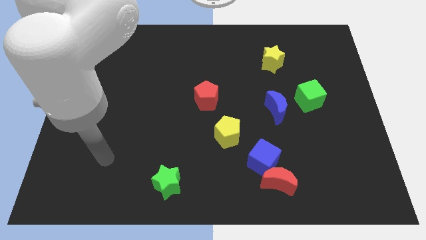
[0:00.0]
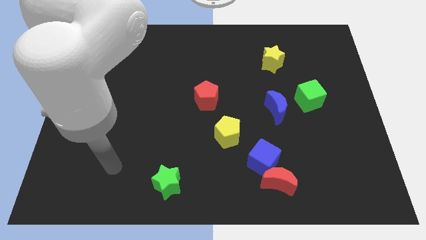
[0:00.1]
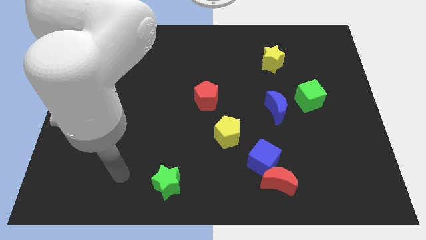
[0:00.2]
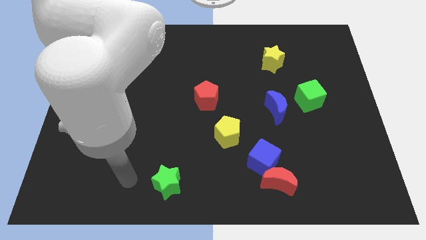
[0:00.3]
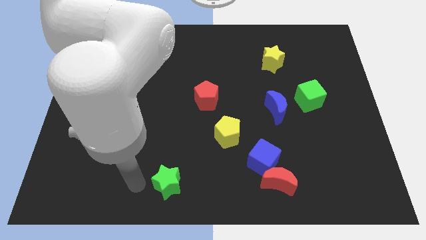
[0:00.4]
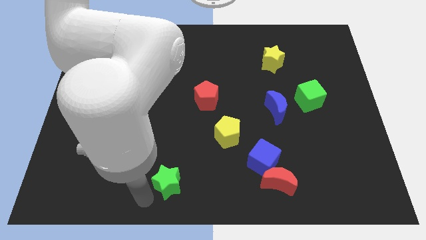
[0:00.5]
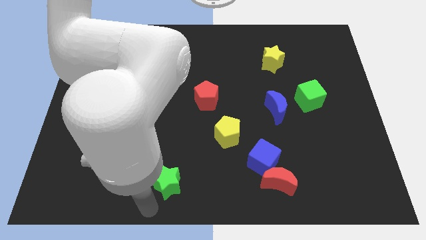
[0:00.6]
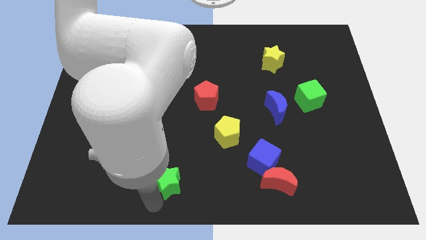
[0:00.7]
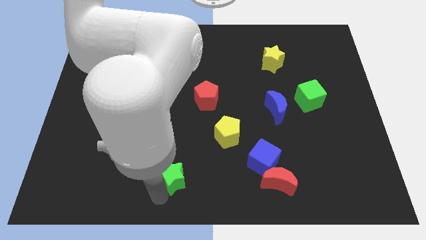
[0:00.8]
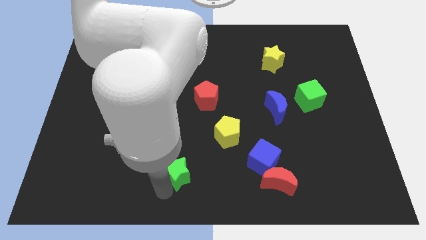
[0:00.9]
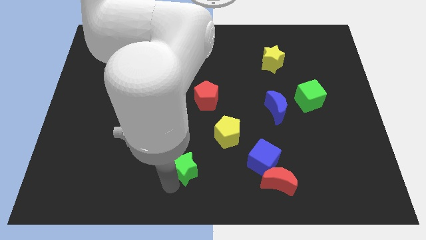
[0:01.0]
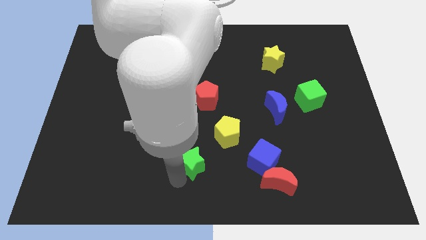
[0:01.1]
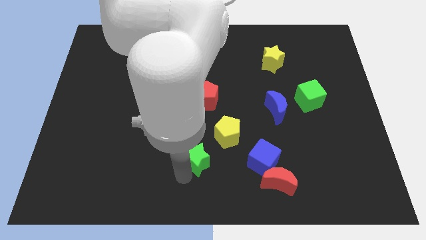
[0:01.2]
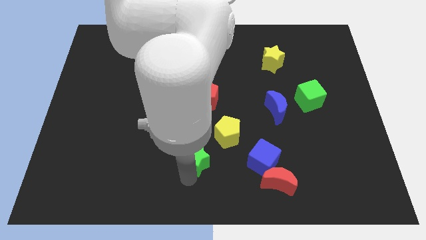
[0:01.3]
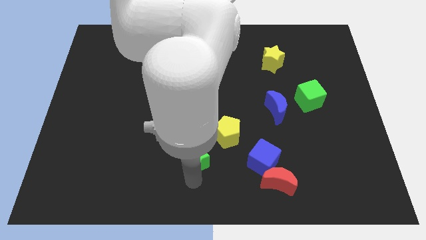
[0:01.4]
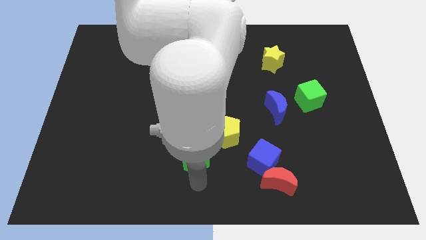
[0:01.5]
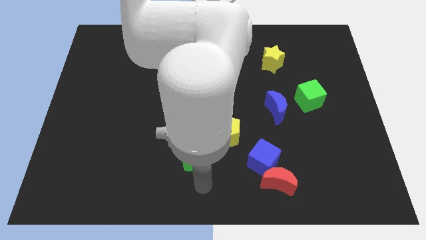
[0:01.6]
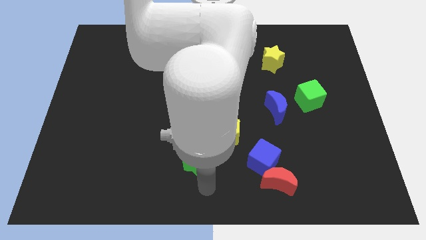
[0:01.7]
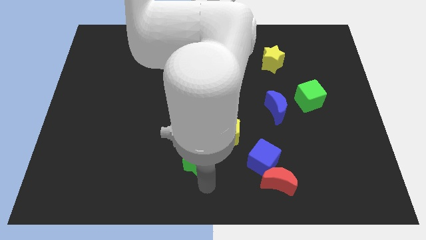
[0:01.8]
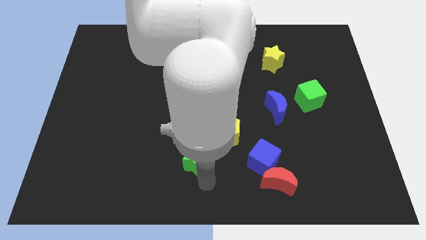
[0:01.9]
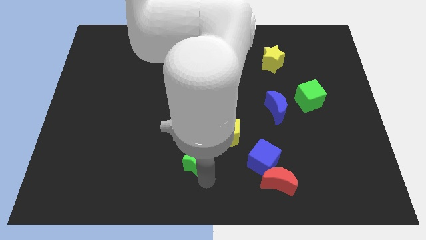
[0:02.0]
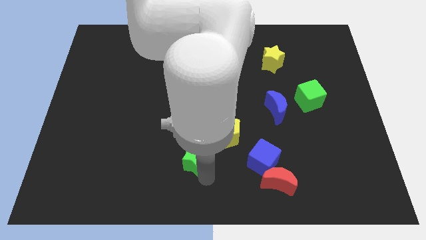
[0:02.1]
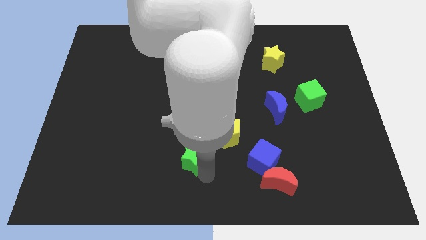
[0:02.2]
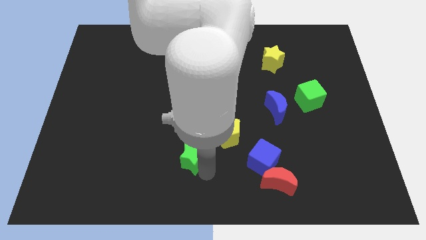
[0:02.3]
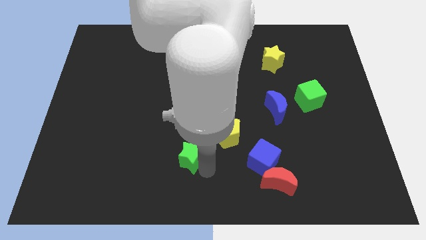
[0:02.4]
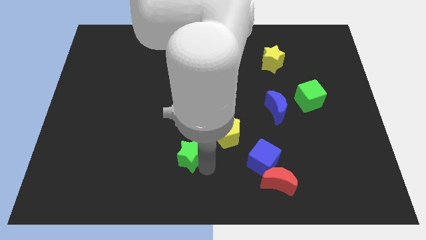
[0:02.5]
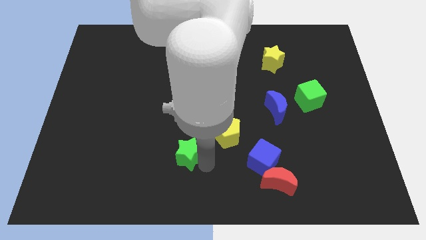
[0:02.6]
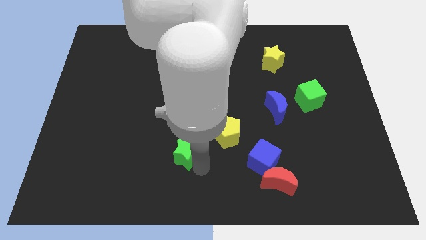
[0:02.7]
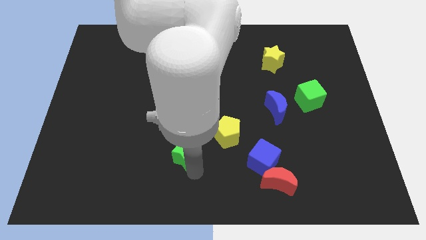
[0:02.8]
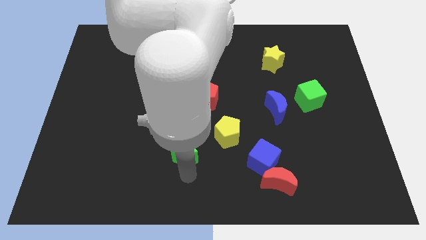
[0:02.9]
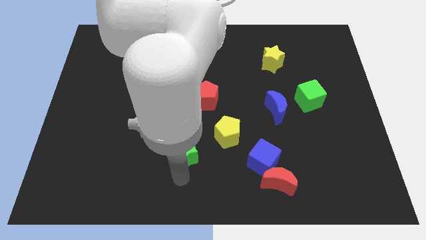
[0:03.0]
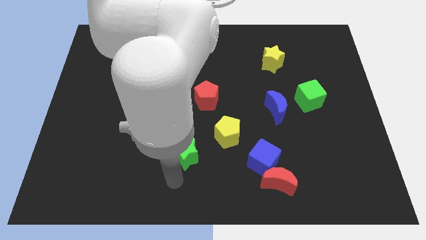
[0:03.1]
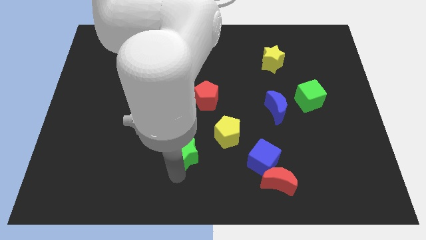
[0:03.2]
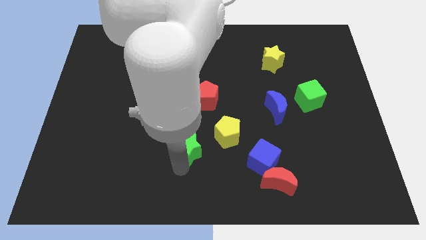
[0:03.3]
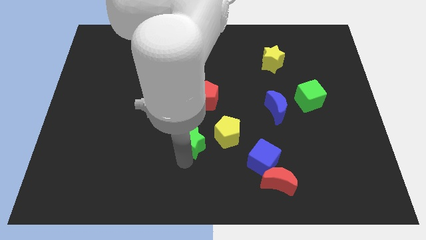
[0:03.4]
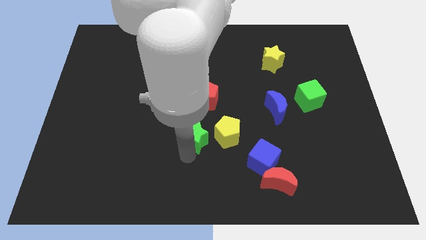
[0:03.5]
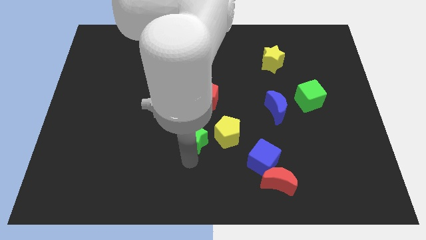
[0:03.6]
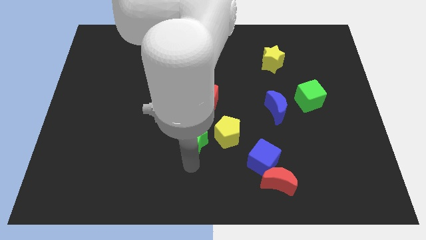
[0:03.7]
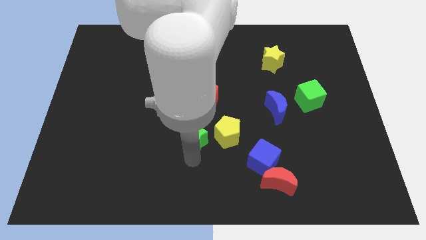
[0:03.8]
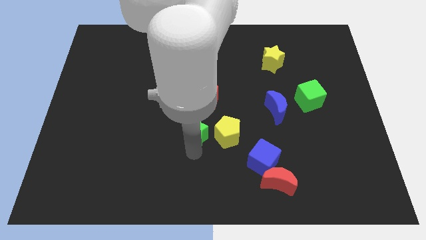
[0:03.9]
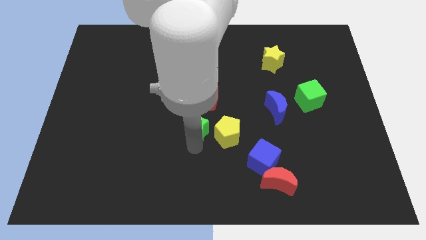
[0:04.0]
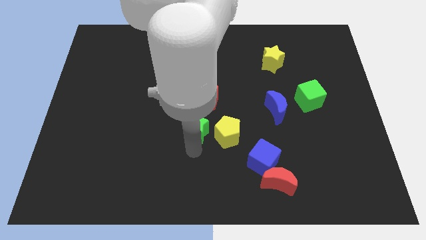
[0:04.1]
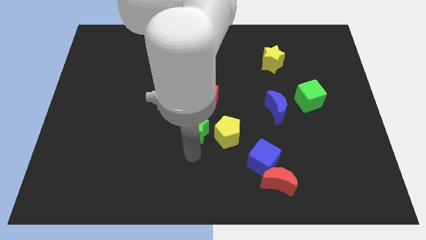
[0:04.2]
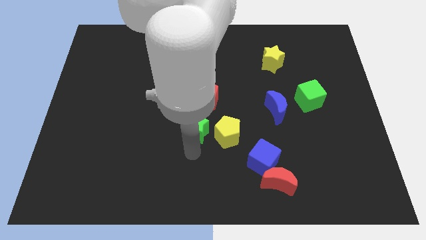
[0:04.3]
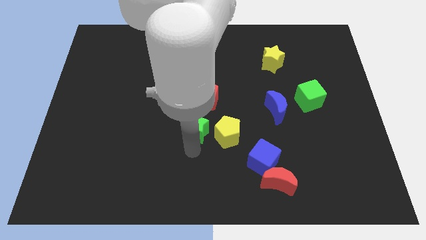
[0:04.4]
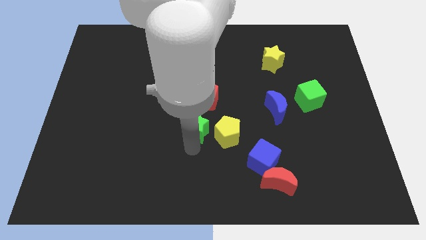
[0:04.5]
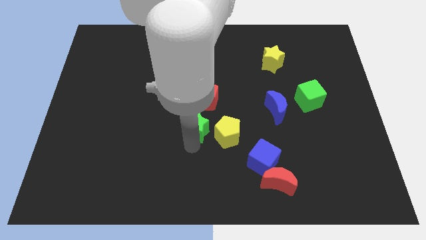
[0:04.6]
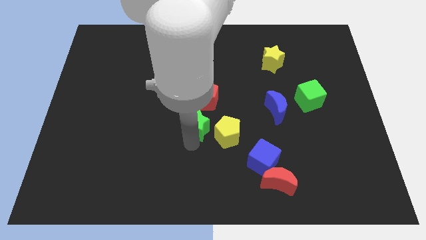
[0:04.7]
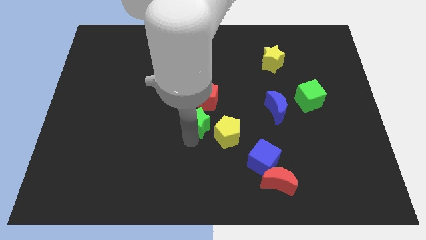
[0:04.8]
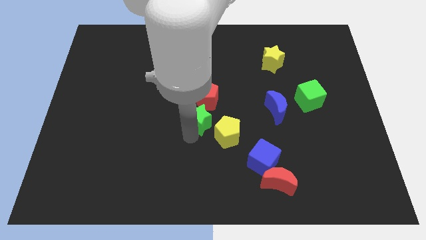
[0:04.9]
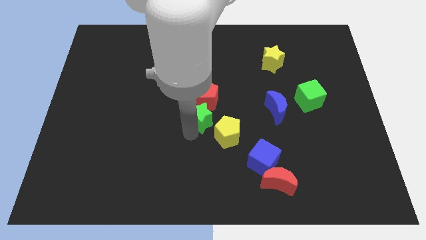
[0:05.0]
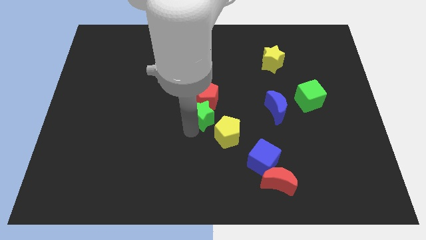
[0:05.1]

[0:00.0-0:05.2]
put the green star towards the red pentagon

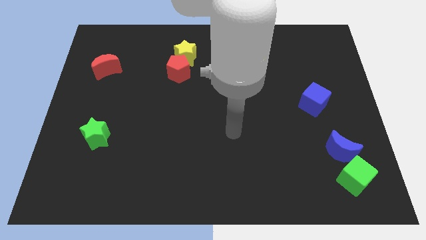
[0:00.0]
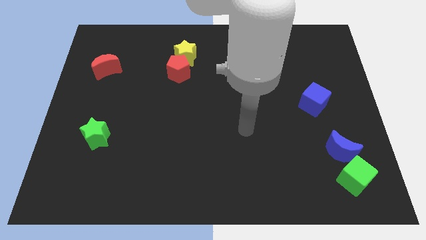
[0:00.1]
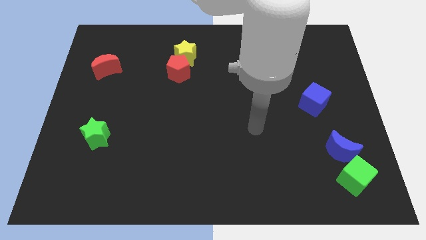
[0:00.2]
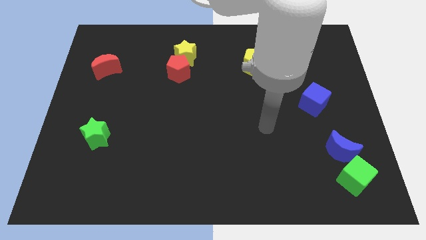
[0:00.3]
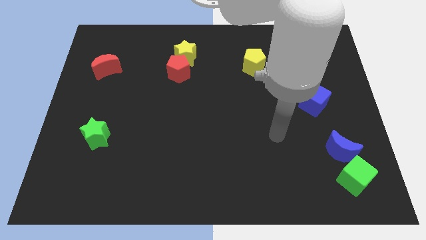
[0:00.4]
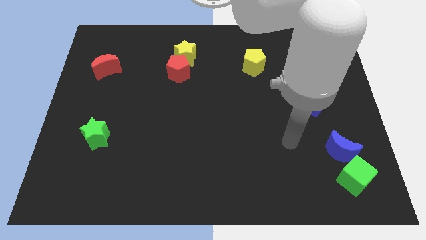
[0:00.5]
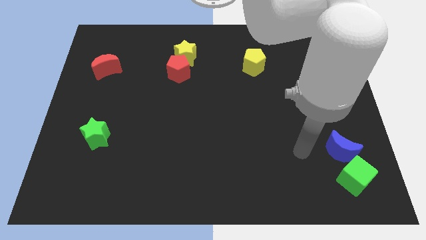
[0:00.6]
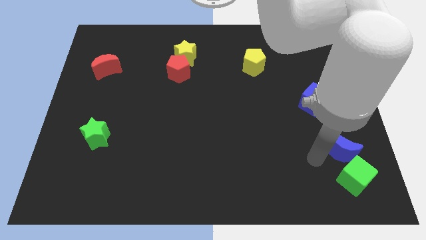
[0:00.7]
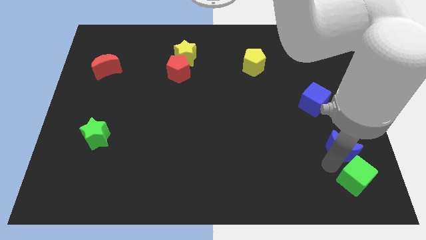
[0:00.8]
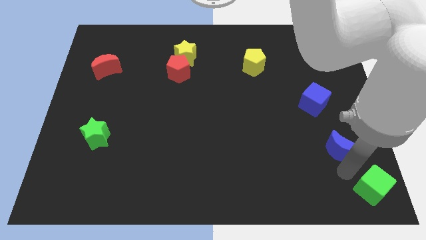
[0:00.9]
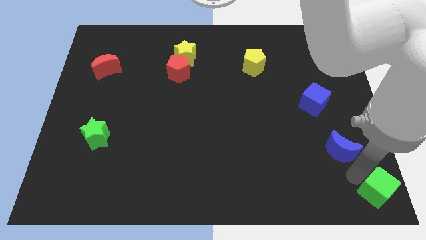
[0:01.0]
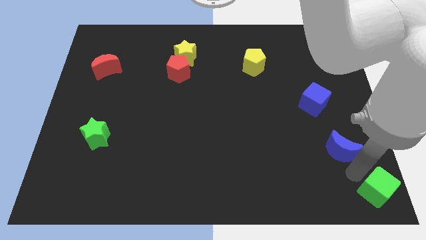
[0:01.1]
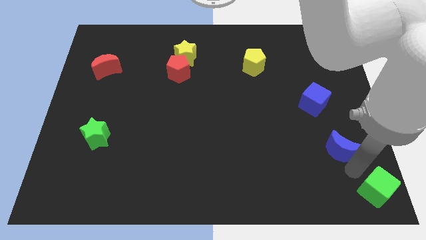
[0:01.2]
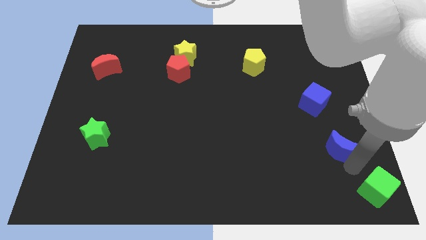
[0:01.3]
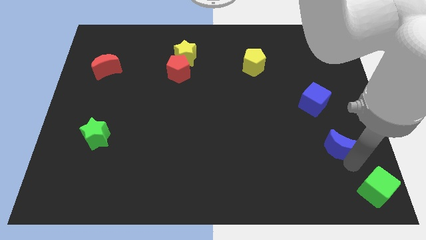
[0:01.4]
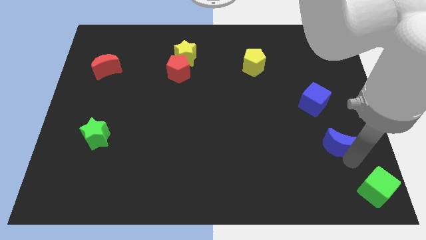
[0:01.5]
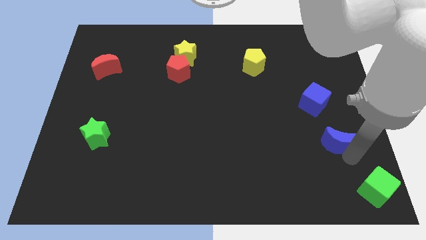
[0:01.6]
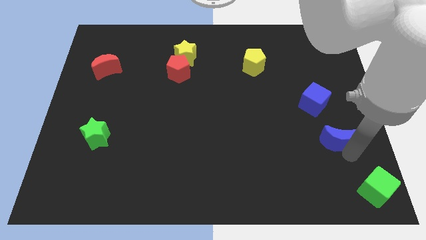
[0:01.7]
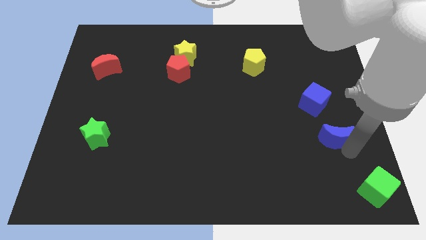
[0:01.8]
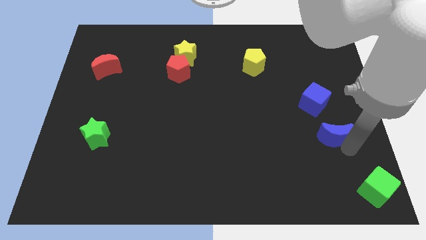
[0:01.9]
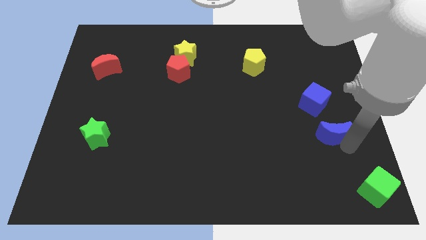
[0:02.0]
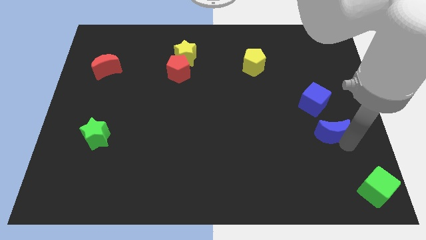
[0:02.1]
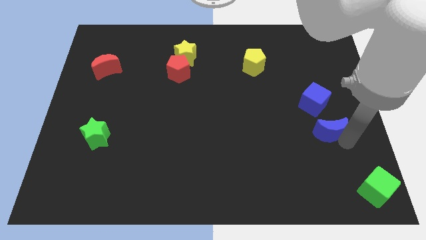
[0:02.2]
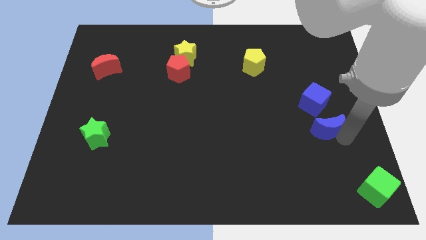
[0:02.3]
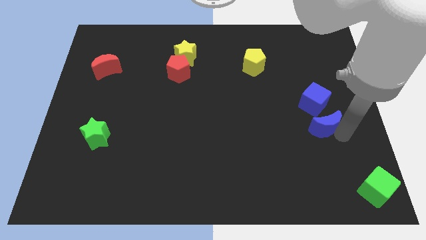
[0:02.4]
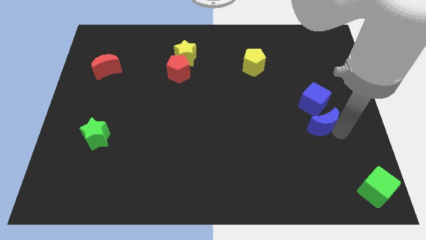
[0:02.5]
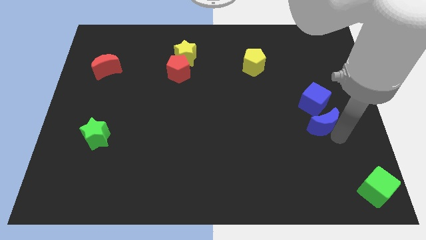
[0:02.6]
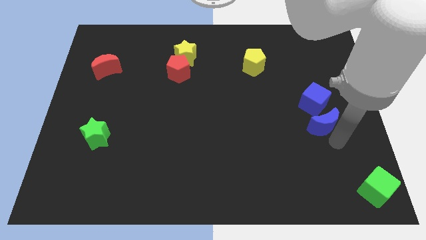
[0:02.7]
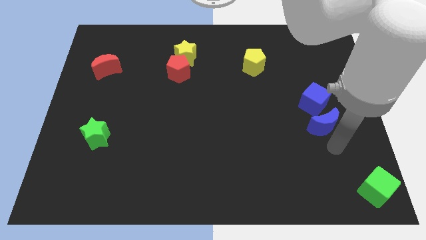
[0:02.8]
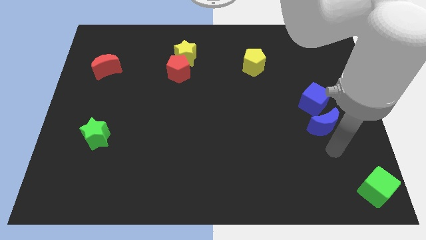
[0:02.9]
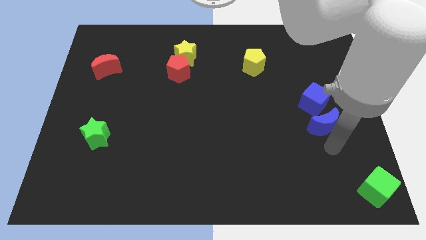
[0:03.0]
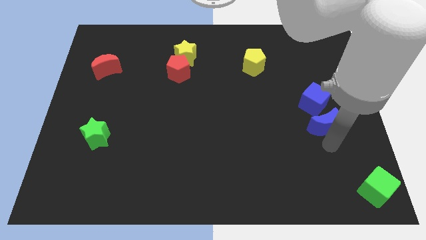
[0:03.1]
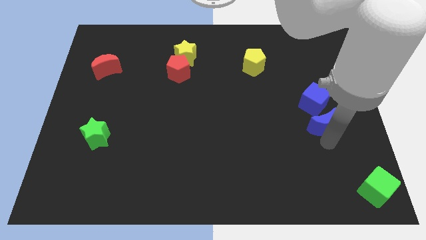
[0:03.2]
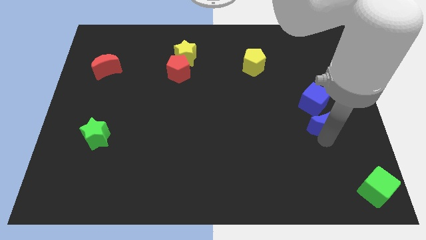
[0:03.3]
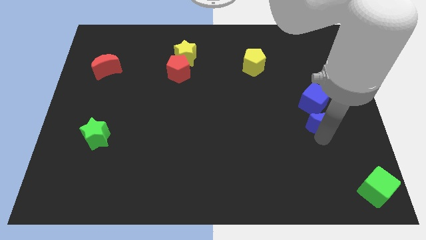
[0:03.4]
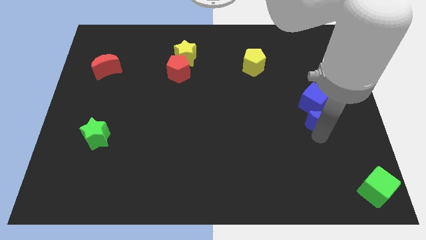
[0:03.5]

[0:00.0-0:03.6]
slide the blue moon to the blue cube
